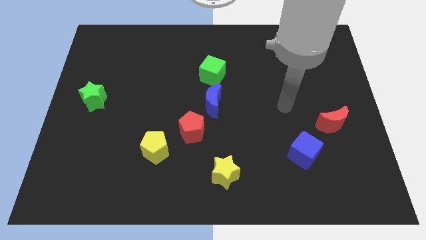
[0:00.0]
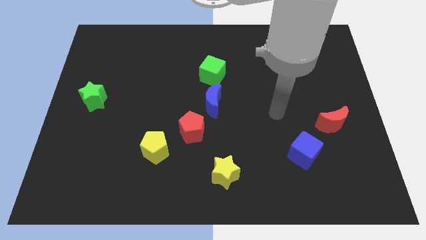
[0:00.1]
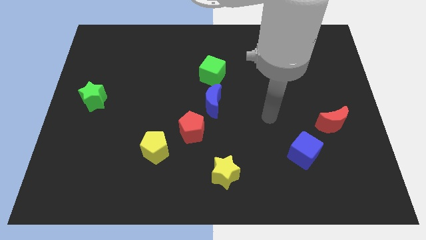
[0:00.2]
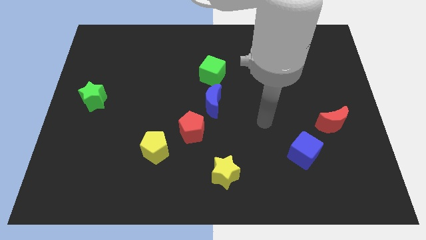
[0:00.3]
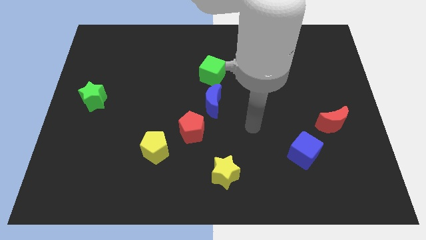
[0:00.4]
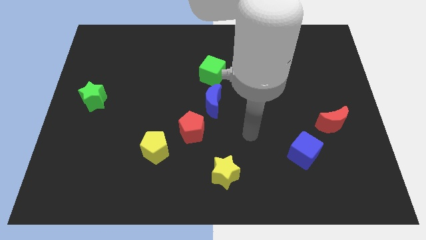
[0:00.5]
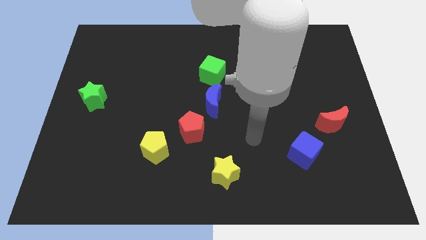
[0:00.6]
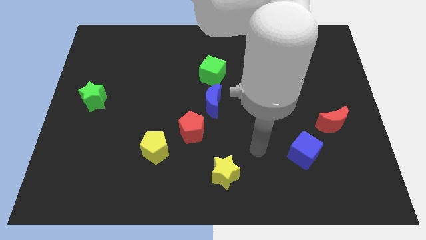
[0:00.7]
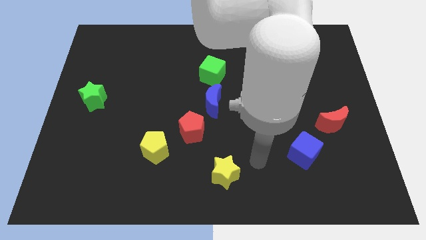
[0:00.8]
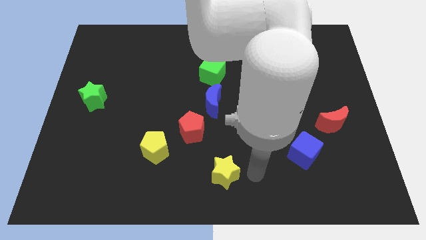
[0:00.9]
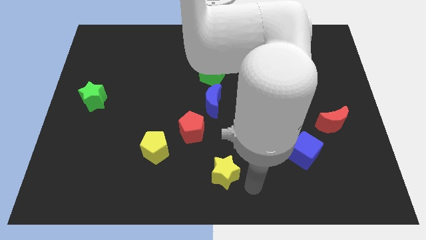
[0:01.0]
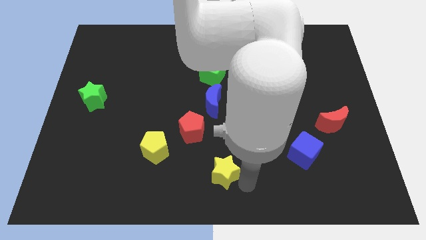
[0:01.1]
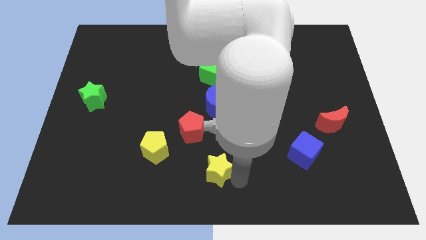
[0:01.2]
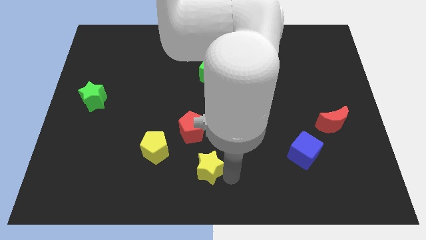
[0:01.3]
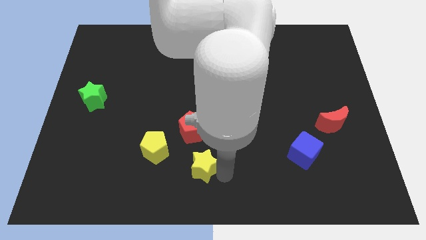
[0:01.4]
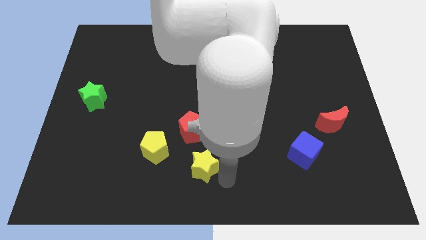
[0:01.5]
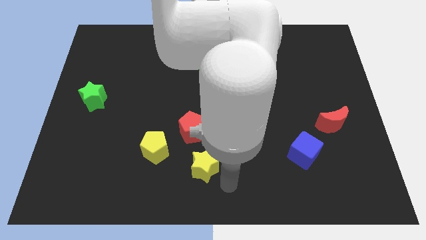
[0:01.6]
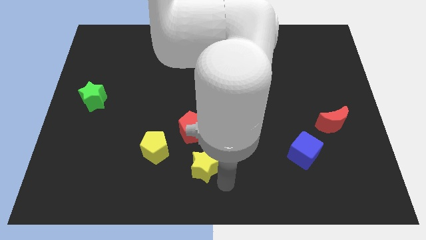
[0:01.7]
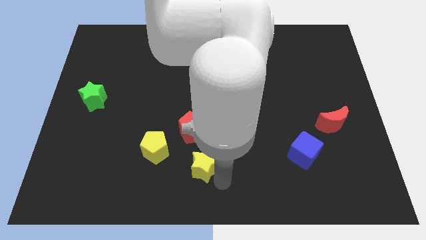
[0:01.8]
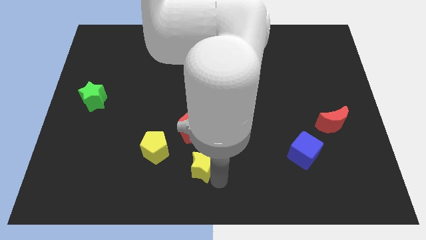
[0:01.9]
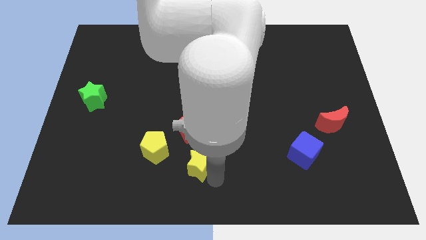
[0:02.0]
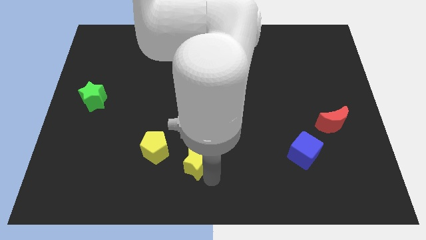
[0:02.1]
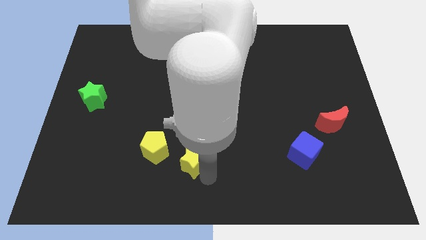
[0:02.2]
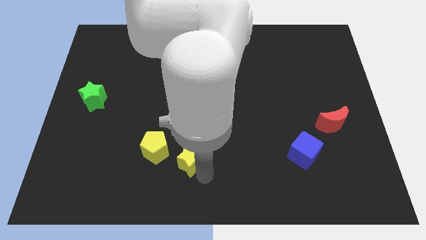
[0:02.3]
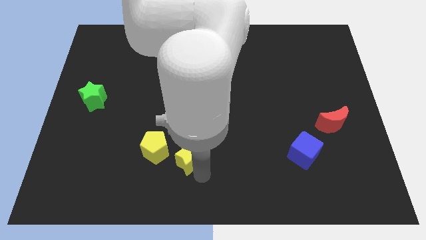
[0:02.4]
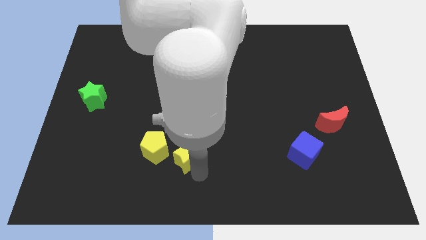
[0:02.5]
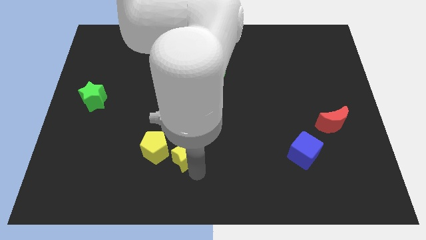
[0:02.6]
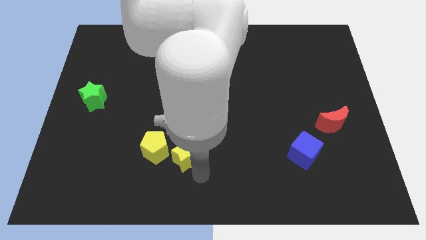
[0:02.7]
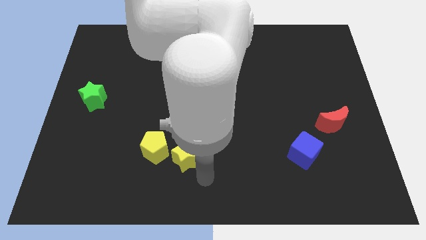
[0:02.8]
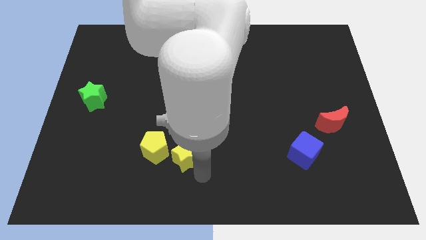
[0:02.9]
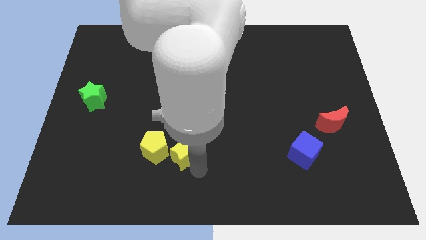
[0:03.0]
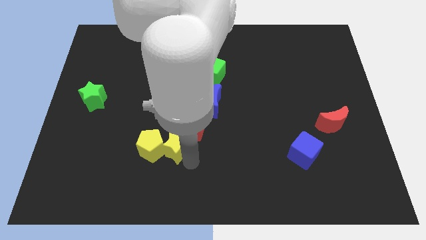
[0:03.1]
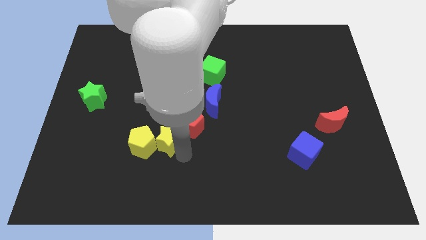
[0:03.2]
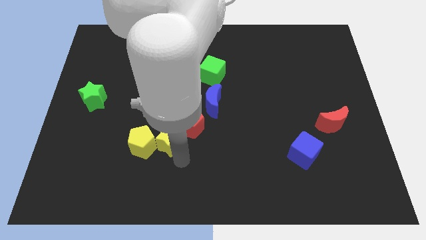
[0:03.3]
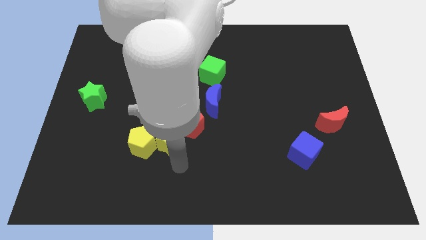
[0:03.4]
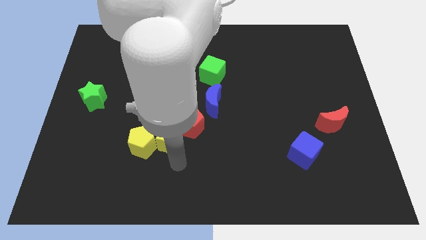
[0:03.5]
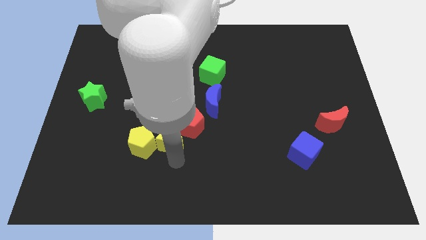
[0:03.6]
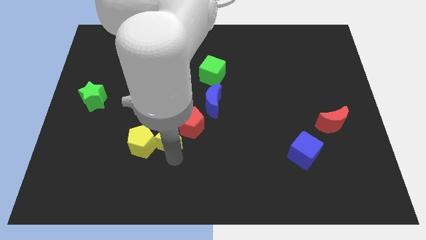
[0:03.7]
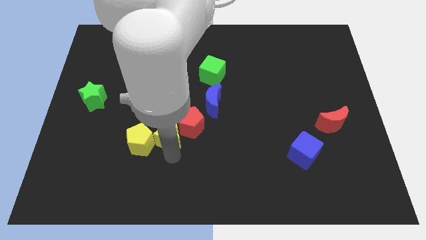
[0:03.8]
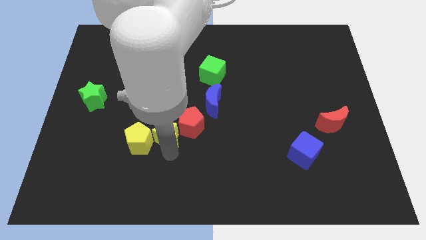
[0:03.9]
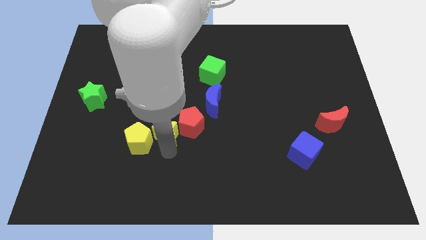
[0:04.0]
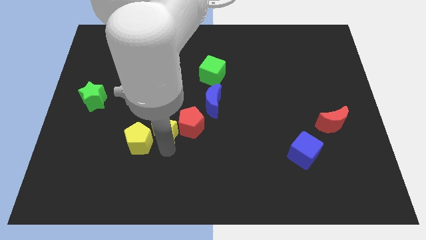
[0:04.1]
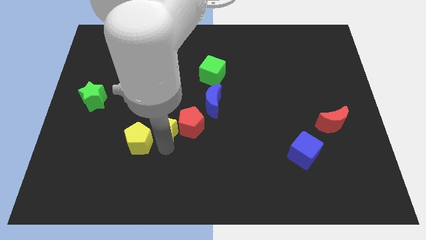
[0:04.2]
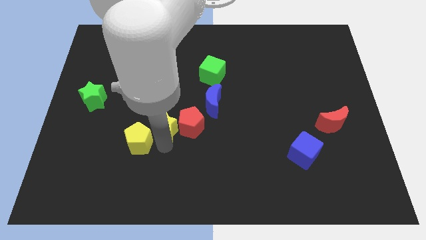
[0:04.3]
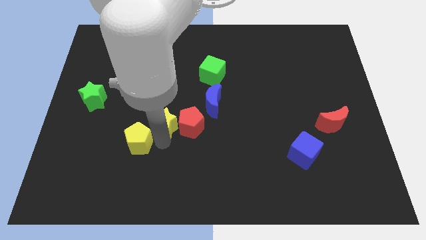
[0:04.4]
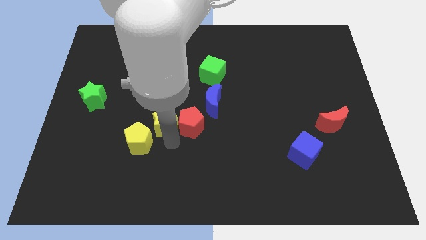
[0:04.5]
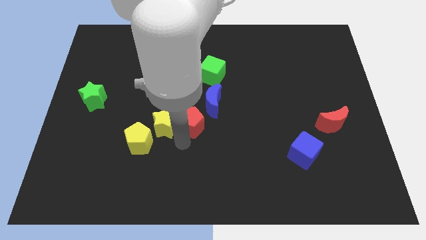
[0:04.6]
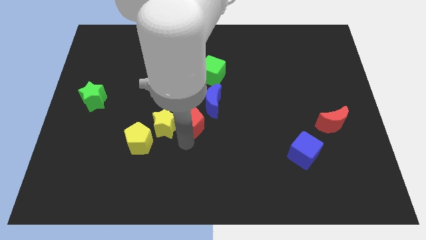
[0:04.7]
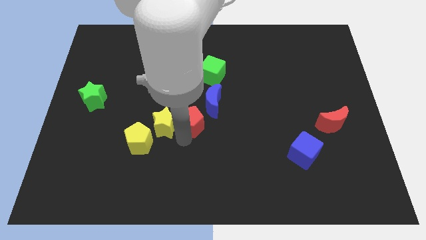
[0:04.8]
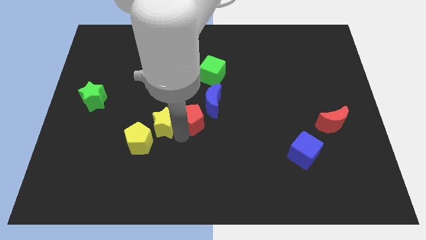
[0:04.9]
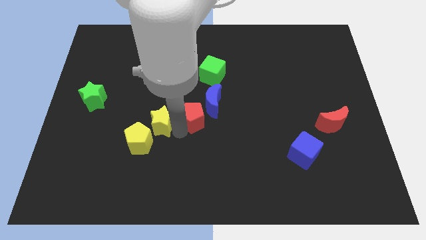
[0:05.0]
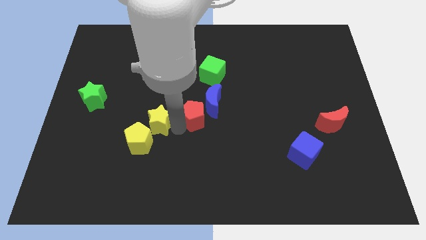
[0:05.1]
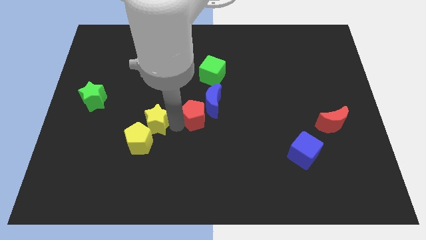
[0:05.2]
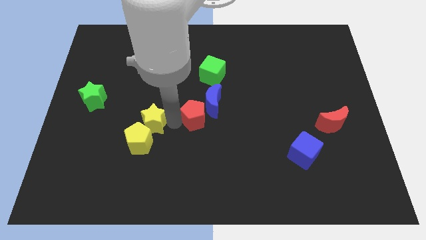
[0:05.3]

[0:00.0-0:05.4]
slide the yellow star up and to the left diagonally

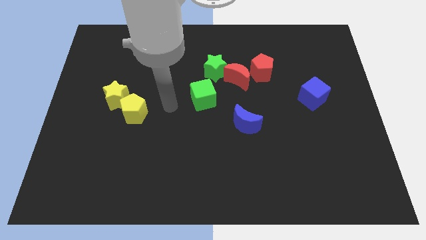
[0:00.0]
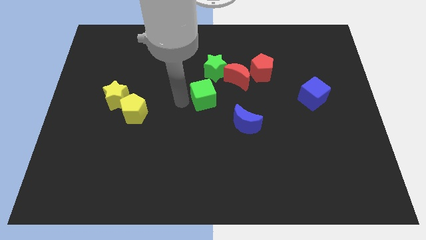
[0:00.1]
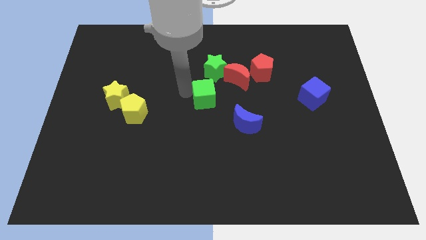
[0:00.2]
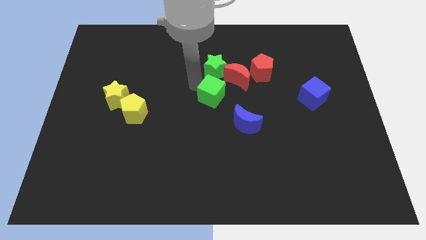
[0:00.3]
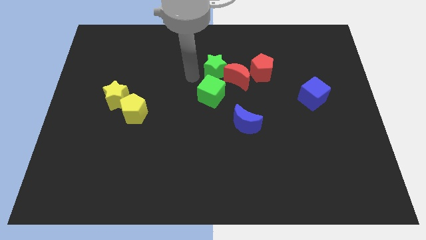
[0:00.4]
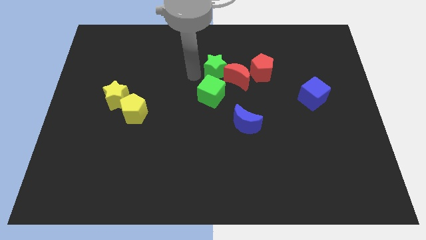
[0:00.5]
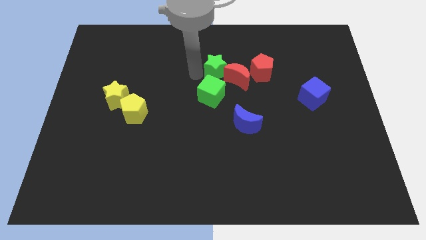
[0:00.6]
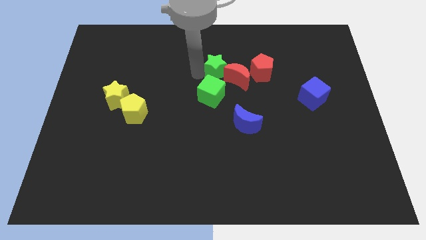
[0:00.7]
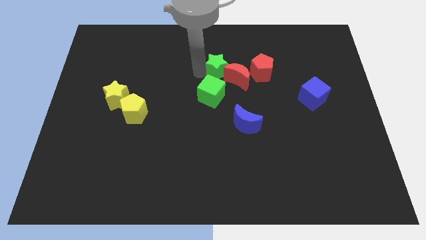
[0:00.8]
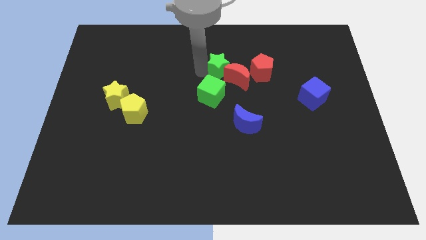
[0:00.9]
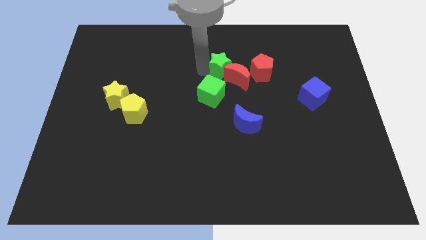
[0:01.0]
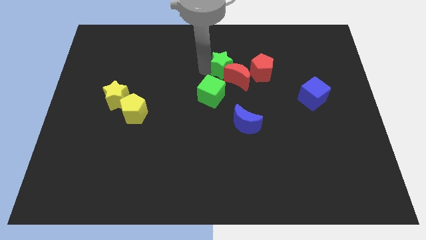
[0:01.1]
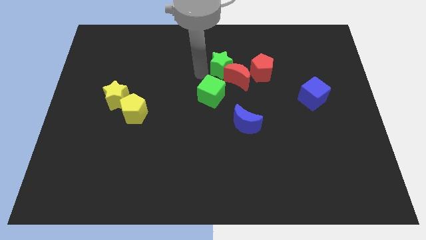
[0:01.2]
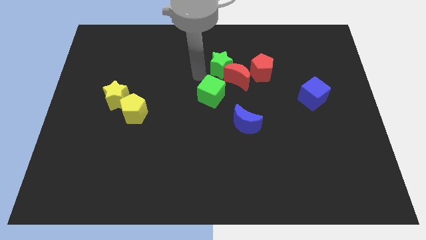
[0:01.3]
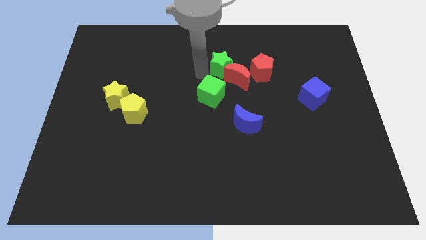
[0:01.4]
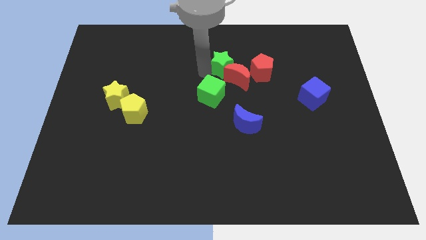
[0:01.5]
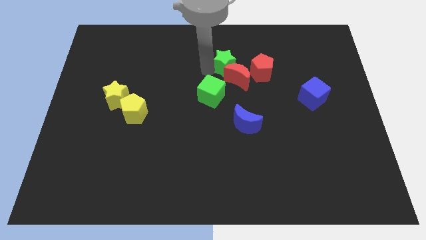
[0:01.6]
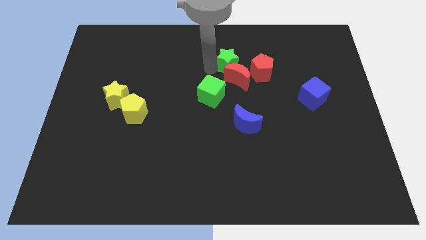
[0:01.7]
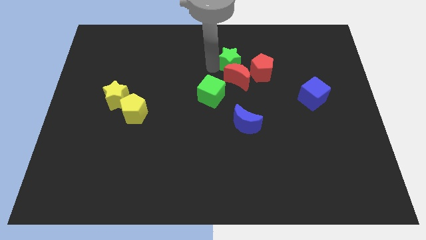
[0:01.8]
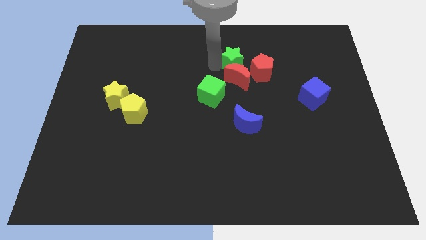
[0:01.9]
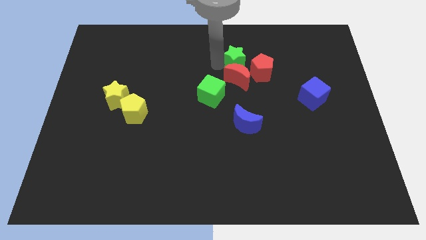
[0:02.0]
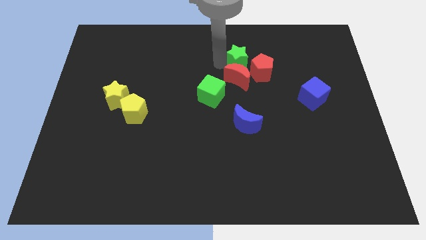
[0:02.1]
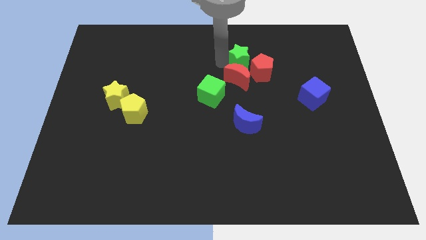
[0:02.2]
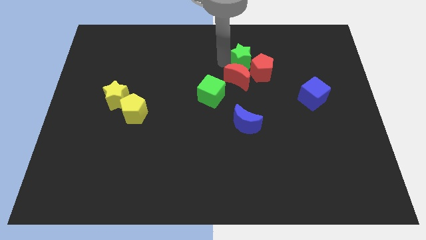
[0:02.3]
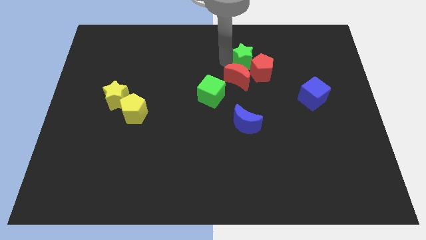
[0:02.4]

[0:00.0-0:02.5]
slide the green star a little right
